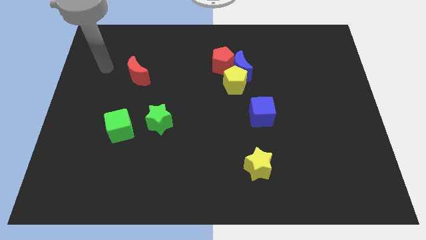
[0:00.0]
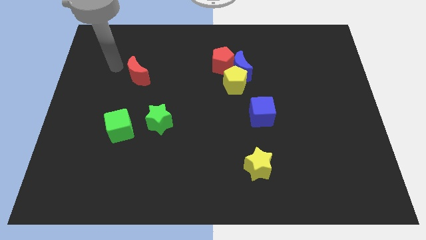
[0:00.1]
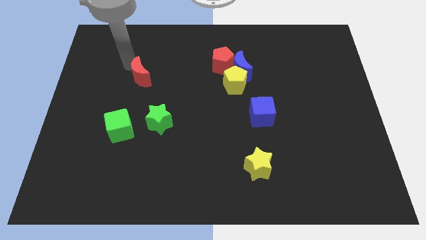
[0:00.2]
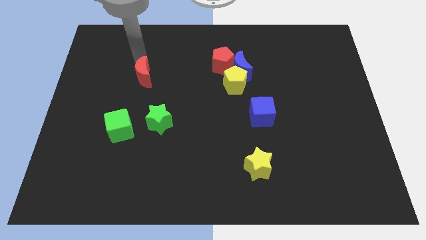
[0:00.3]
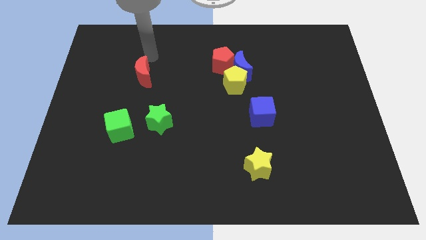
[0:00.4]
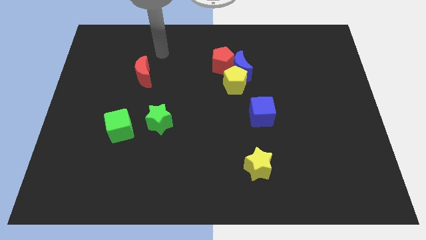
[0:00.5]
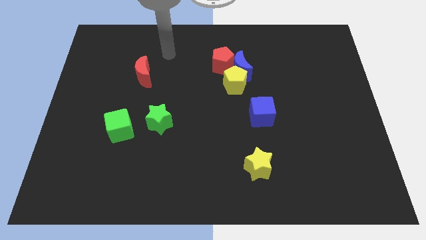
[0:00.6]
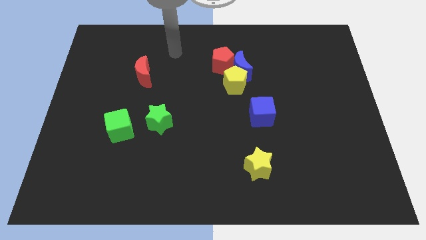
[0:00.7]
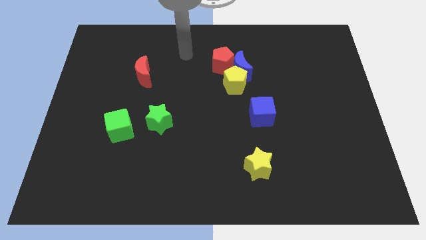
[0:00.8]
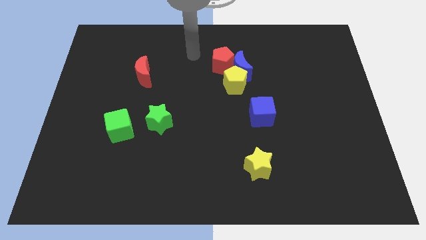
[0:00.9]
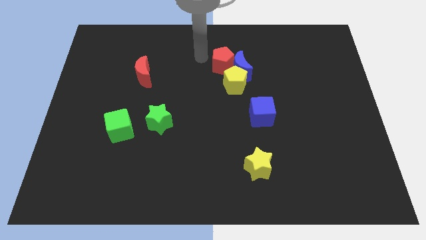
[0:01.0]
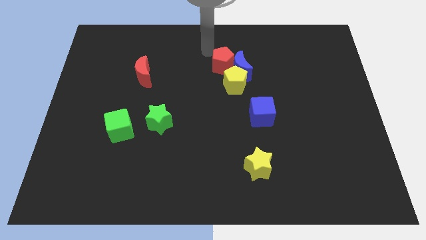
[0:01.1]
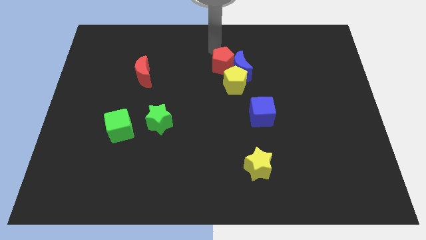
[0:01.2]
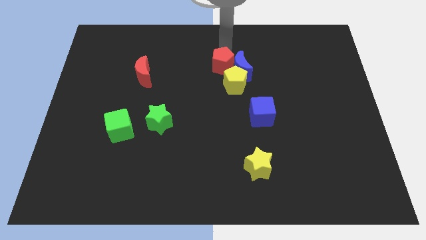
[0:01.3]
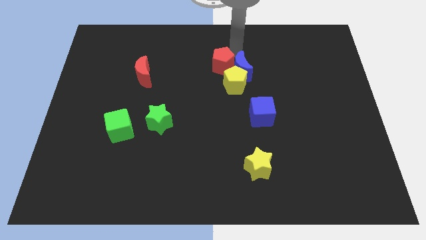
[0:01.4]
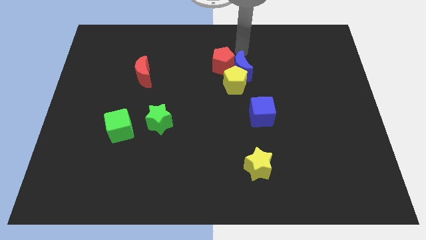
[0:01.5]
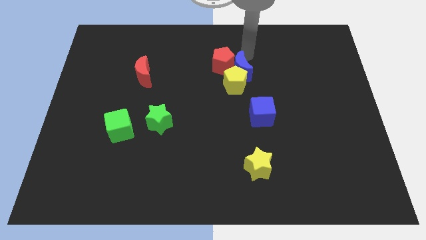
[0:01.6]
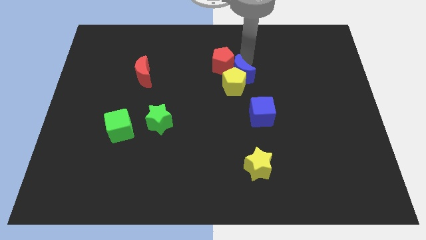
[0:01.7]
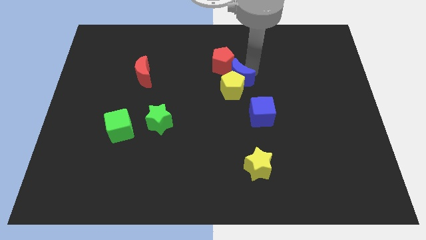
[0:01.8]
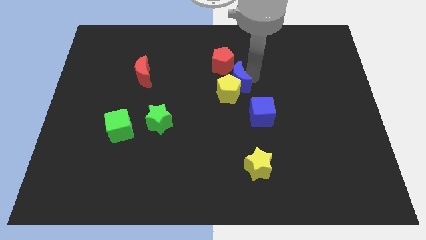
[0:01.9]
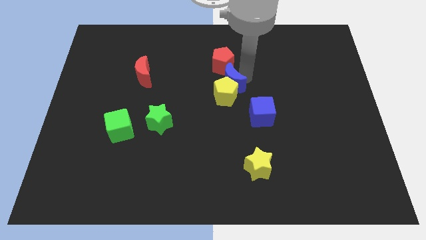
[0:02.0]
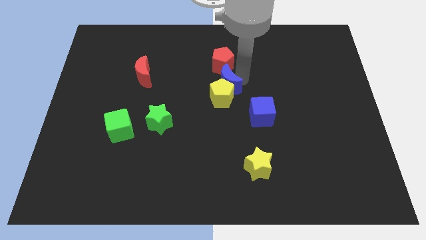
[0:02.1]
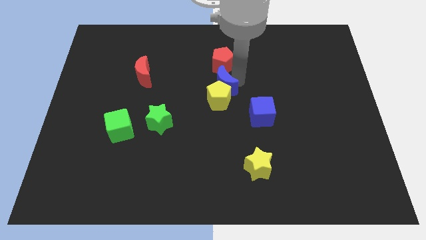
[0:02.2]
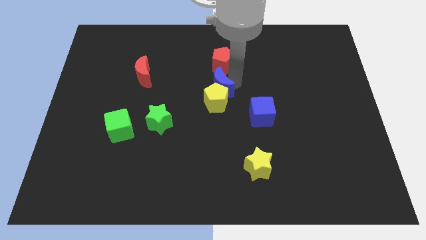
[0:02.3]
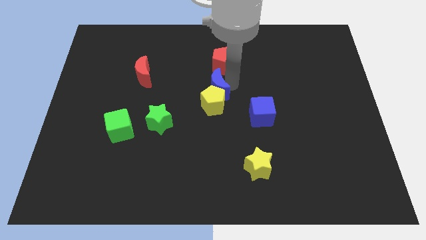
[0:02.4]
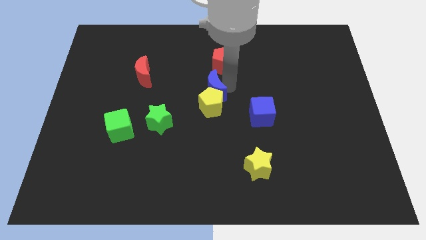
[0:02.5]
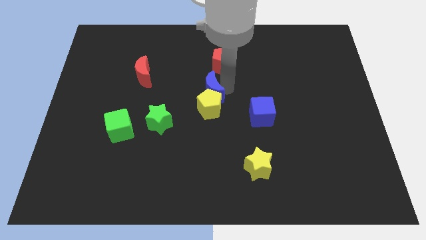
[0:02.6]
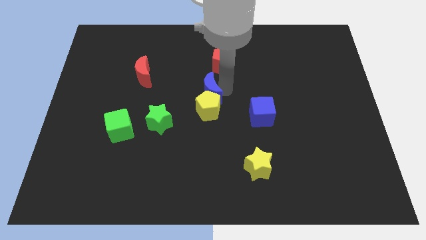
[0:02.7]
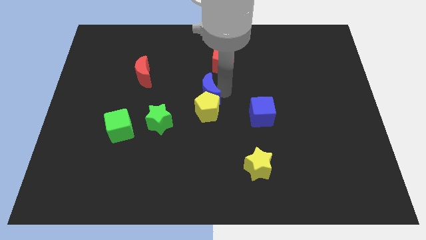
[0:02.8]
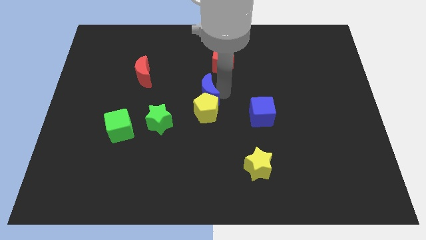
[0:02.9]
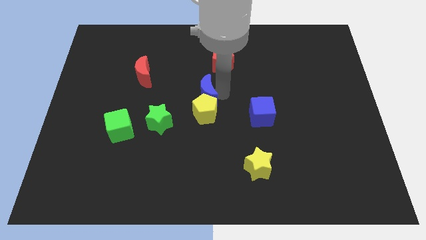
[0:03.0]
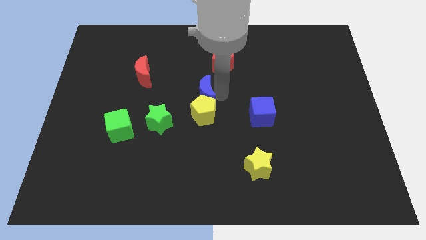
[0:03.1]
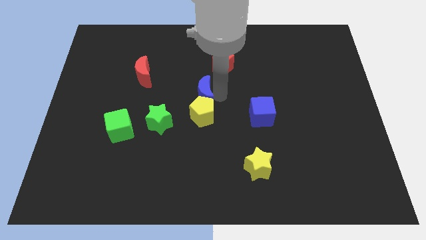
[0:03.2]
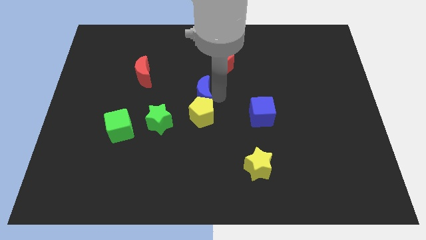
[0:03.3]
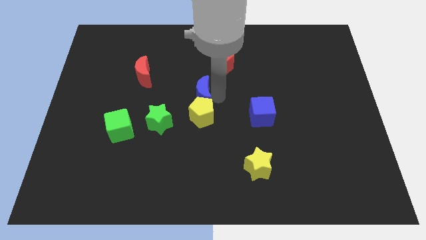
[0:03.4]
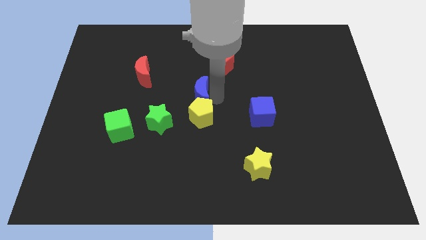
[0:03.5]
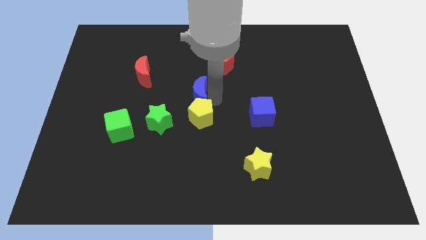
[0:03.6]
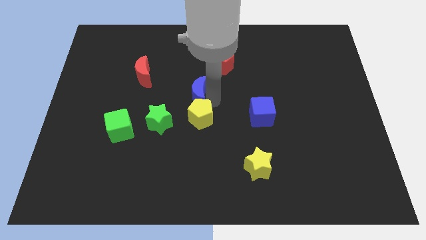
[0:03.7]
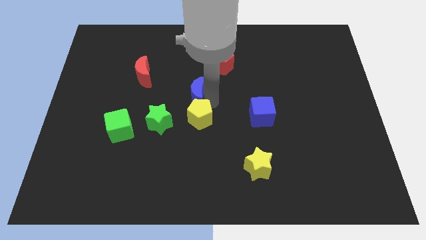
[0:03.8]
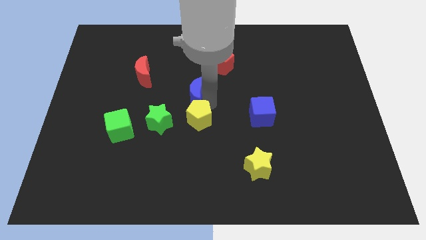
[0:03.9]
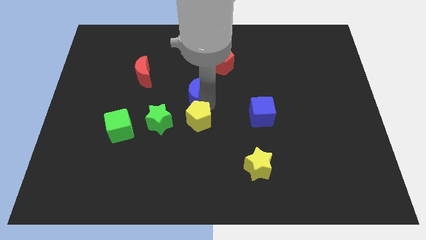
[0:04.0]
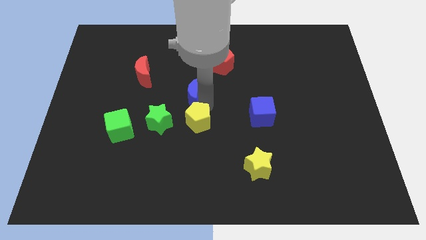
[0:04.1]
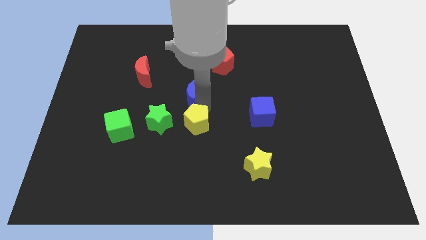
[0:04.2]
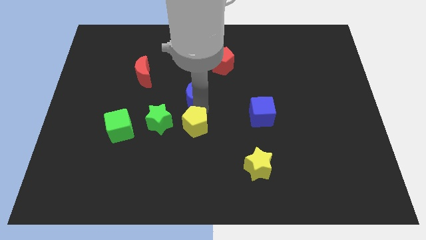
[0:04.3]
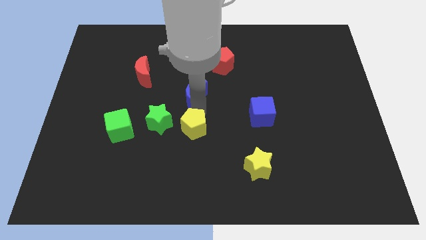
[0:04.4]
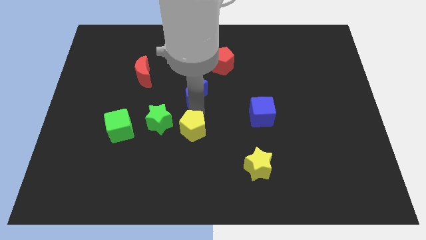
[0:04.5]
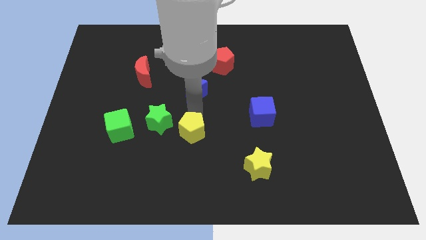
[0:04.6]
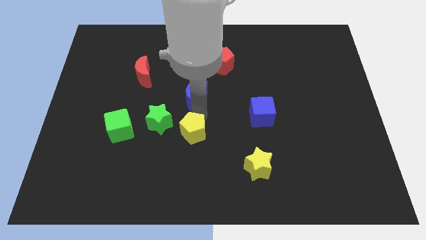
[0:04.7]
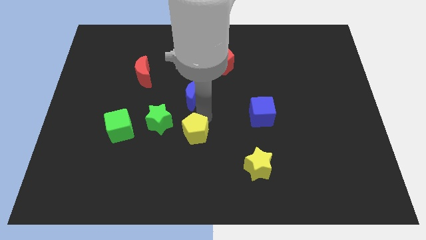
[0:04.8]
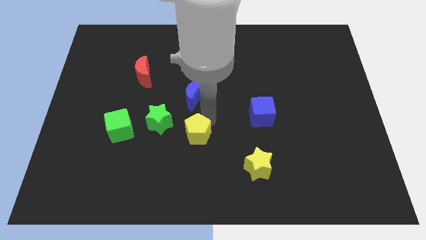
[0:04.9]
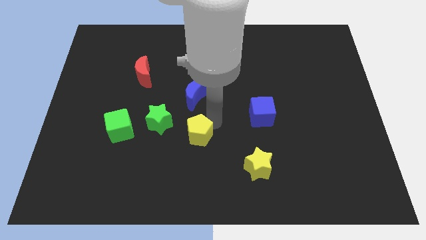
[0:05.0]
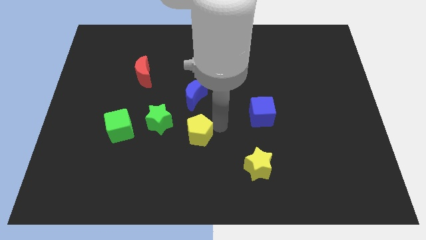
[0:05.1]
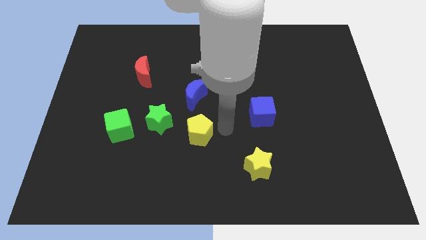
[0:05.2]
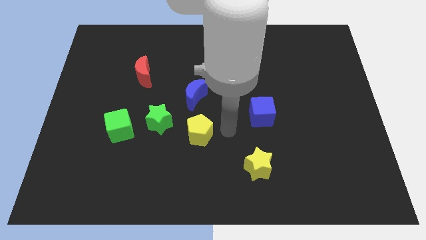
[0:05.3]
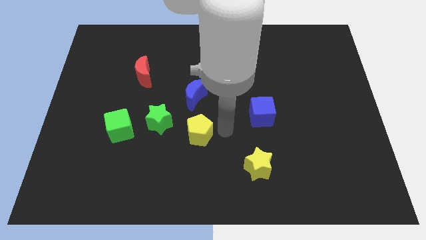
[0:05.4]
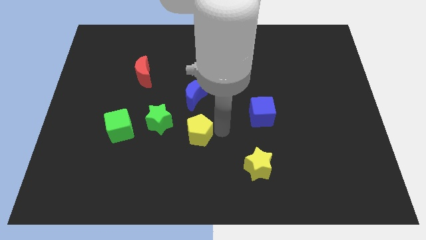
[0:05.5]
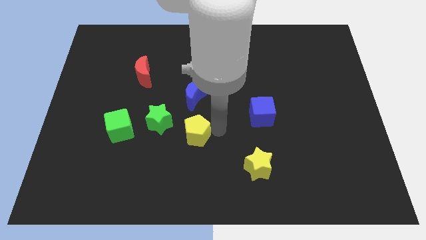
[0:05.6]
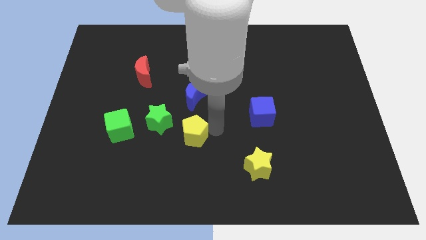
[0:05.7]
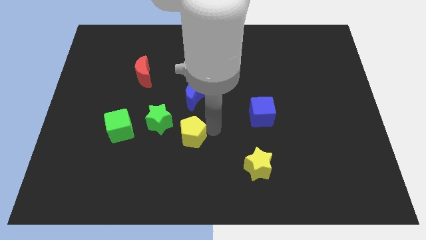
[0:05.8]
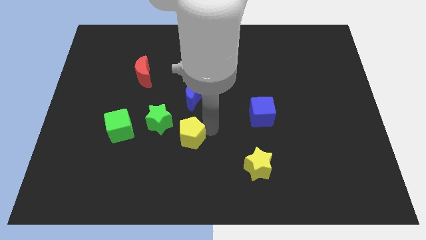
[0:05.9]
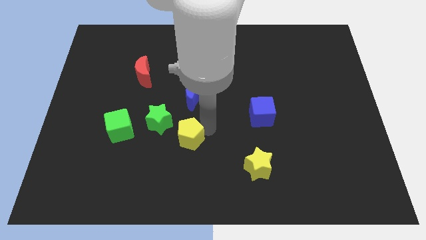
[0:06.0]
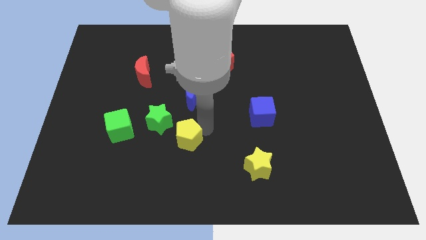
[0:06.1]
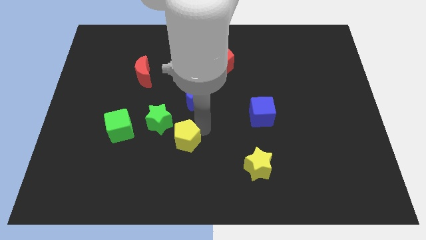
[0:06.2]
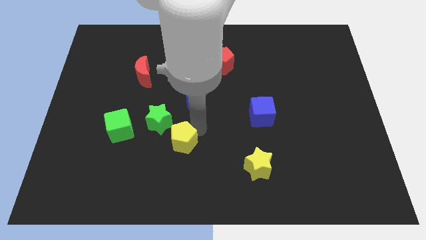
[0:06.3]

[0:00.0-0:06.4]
slide the yellow pentagon downwards and then to the left

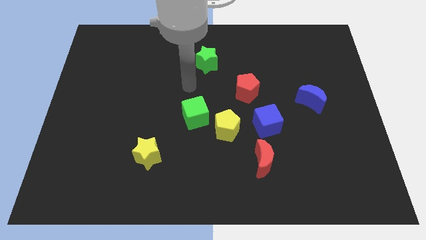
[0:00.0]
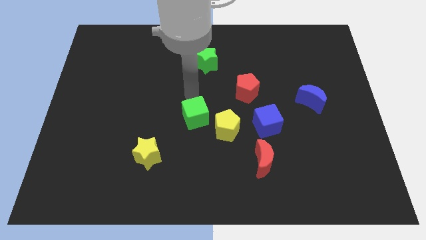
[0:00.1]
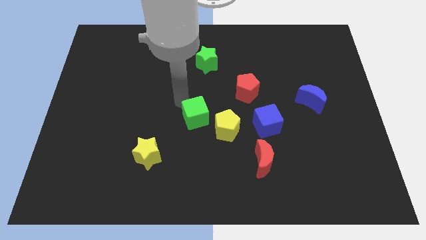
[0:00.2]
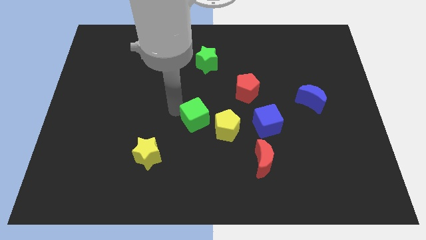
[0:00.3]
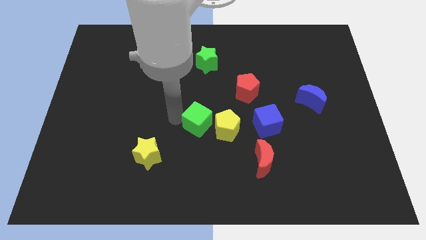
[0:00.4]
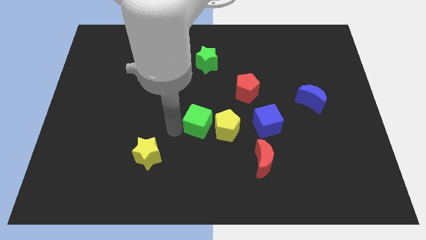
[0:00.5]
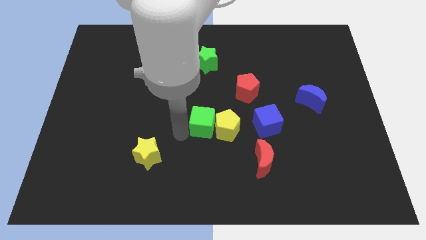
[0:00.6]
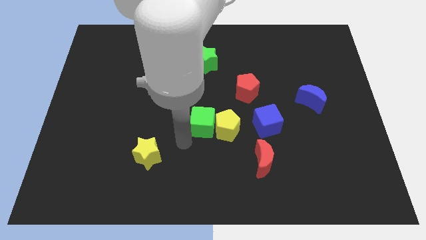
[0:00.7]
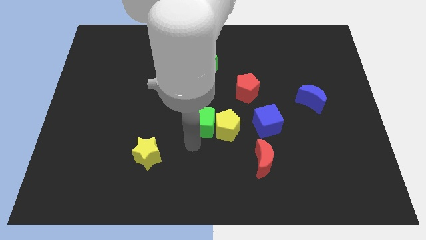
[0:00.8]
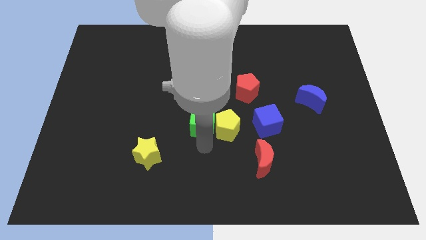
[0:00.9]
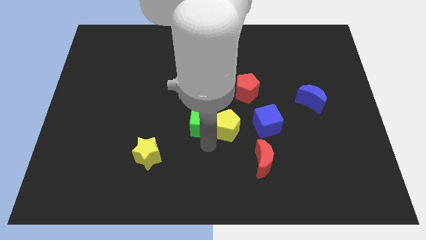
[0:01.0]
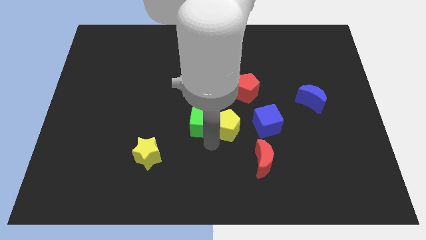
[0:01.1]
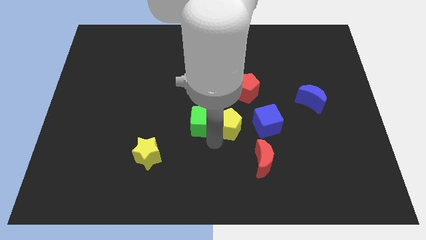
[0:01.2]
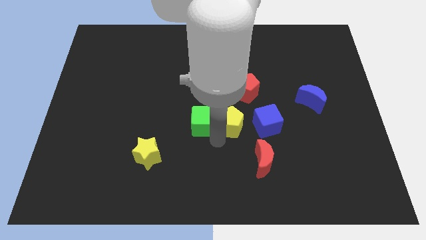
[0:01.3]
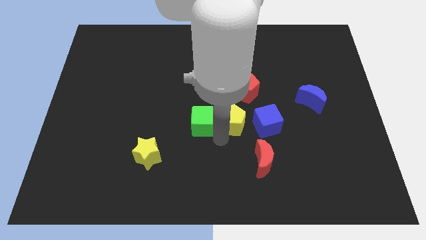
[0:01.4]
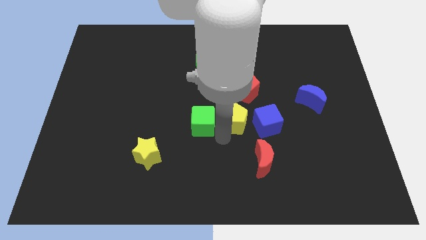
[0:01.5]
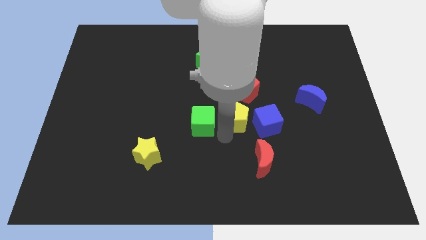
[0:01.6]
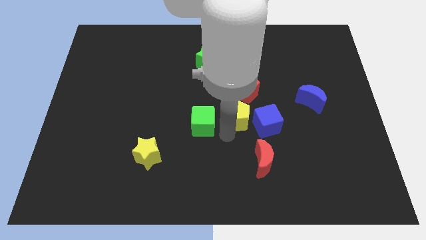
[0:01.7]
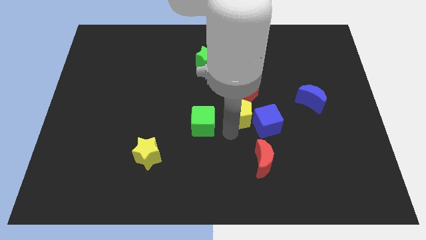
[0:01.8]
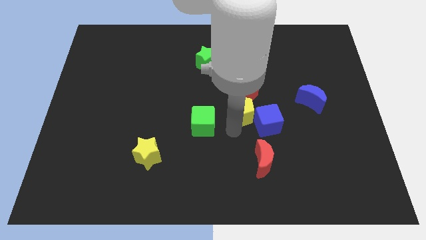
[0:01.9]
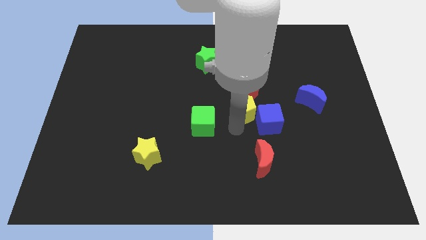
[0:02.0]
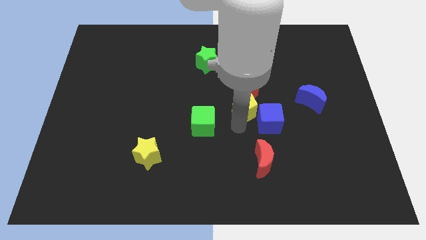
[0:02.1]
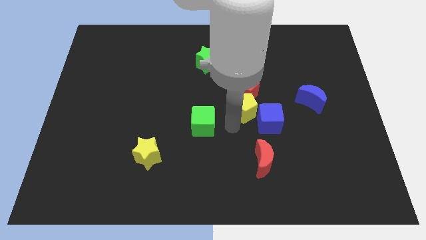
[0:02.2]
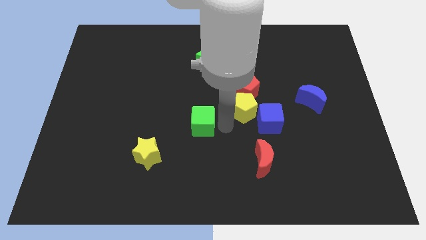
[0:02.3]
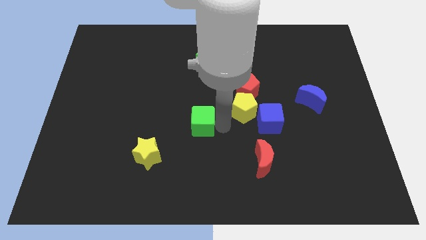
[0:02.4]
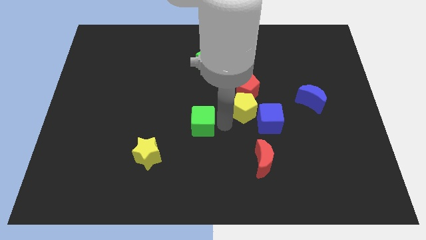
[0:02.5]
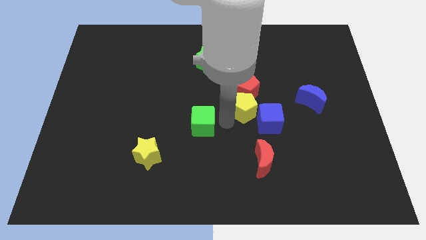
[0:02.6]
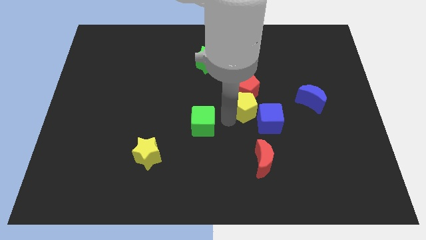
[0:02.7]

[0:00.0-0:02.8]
slightly slide the yellow pentagon upwards and right
